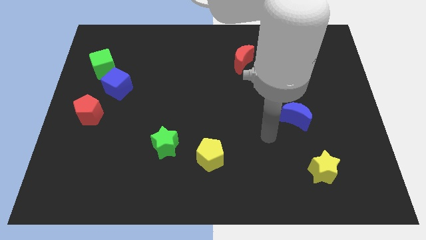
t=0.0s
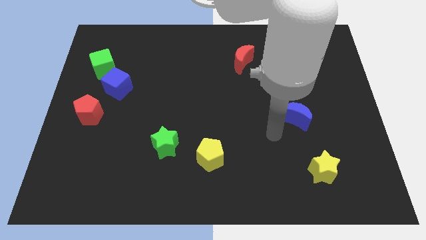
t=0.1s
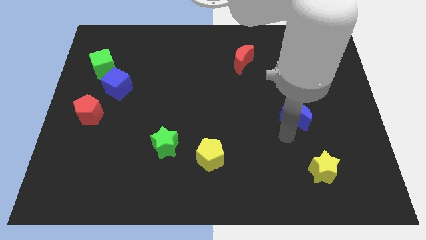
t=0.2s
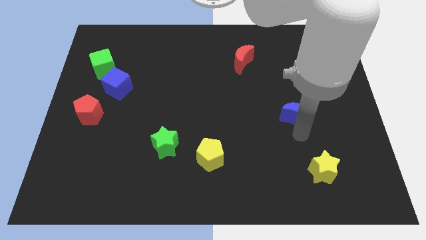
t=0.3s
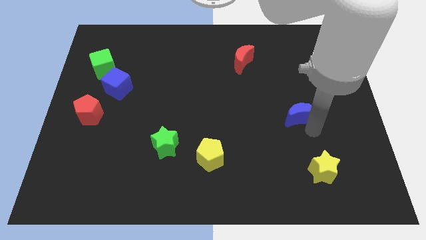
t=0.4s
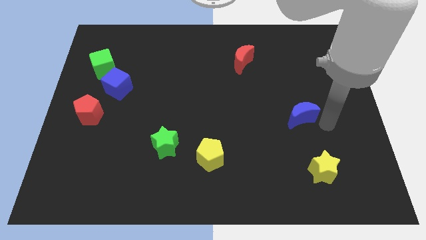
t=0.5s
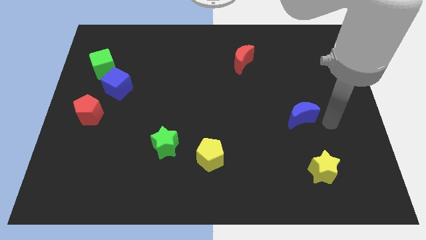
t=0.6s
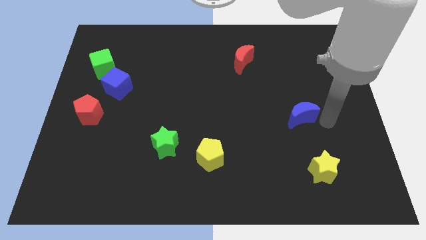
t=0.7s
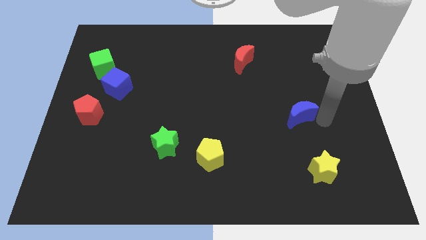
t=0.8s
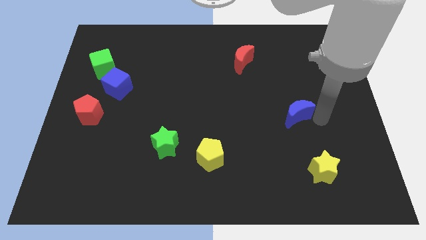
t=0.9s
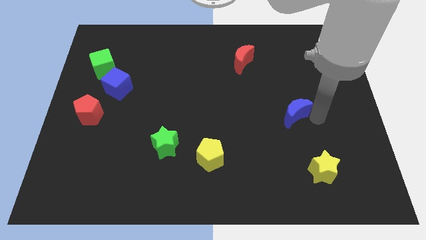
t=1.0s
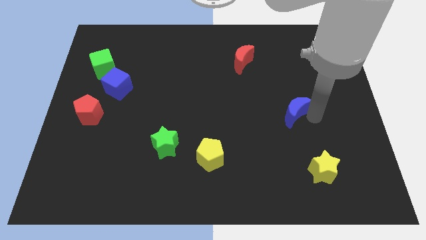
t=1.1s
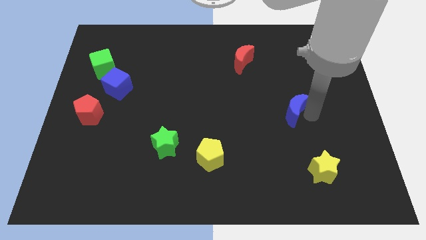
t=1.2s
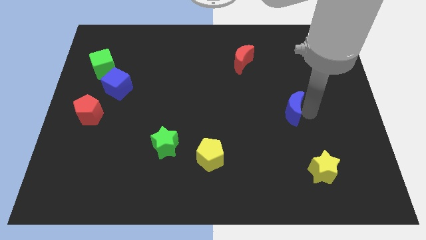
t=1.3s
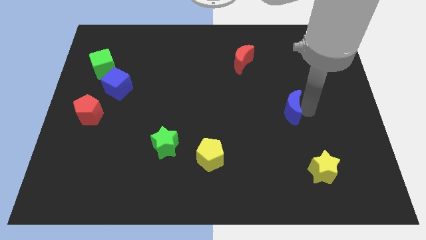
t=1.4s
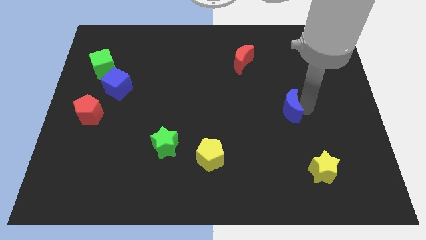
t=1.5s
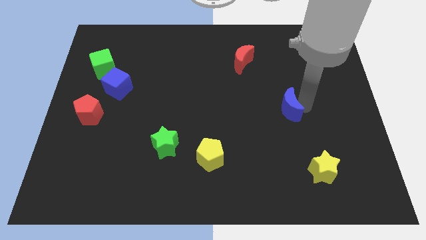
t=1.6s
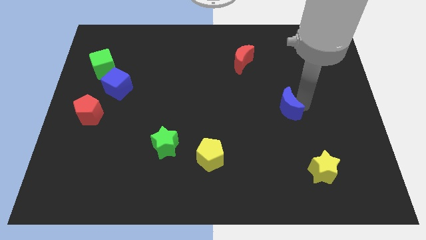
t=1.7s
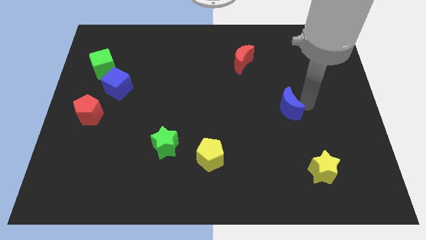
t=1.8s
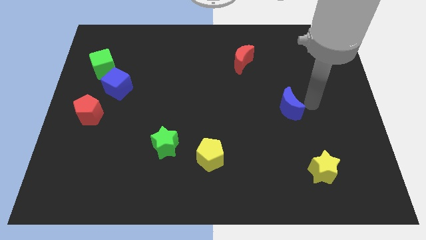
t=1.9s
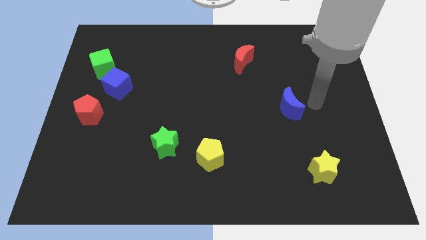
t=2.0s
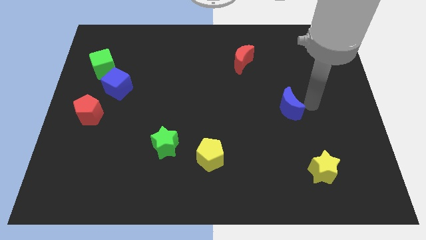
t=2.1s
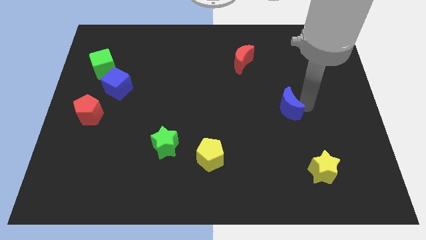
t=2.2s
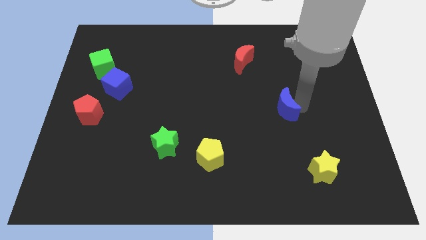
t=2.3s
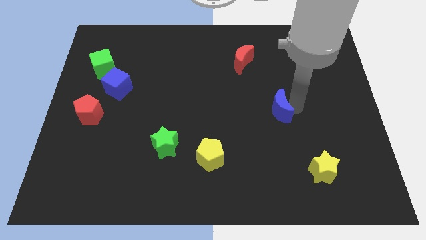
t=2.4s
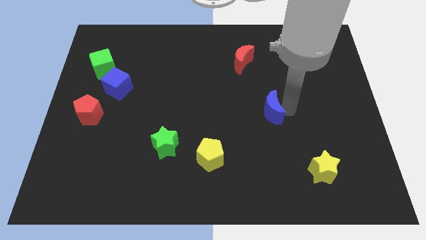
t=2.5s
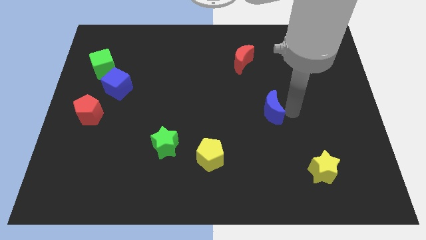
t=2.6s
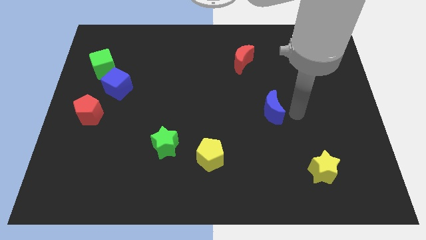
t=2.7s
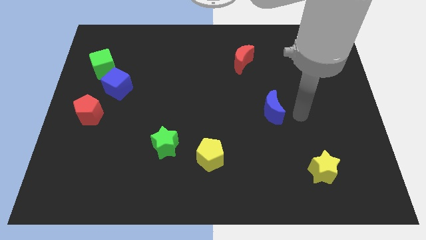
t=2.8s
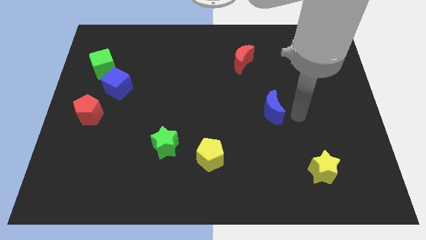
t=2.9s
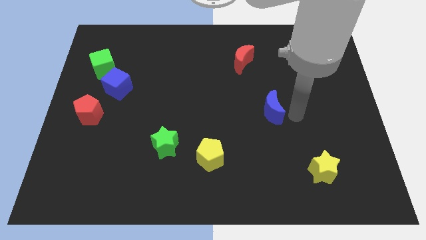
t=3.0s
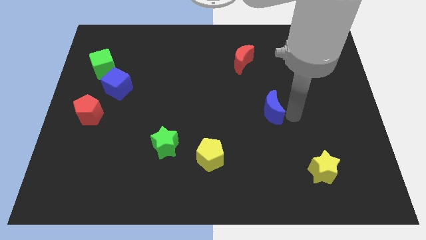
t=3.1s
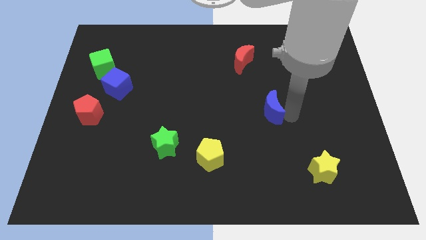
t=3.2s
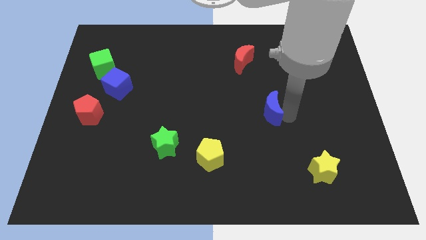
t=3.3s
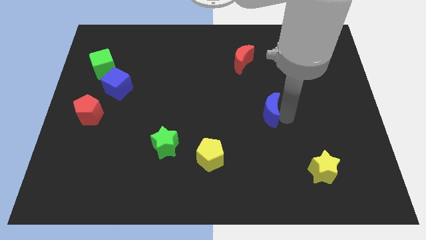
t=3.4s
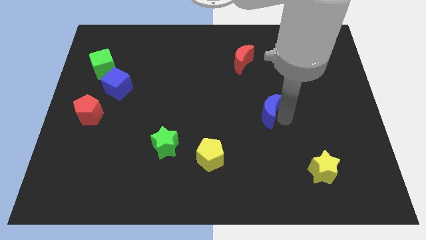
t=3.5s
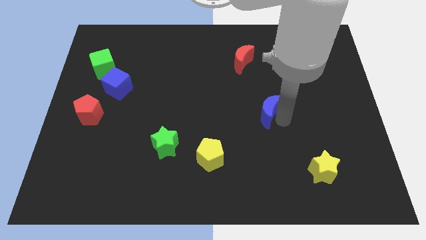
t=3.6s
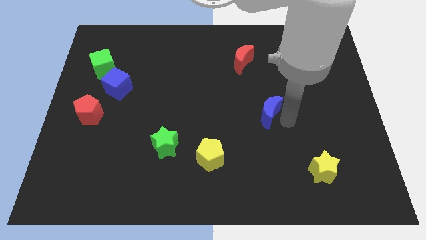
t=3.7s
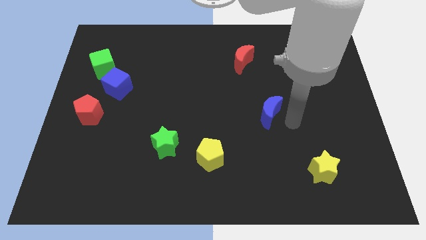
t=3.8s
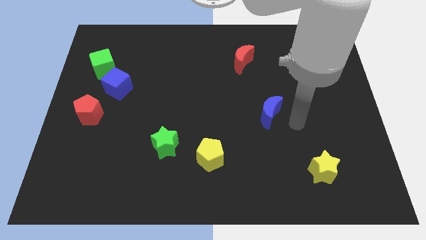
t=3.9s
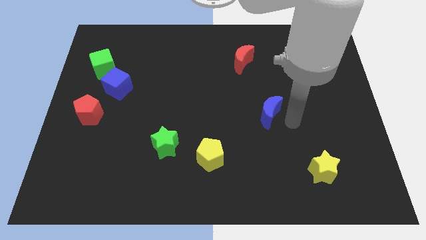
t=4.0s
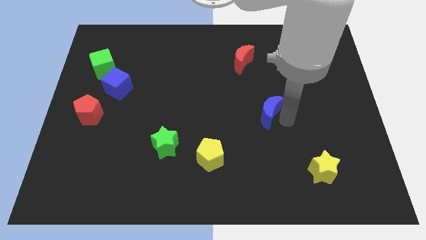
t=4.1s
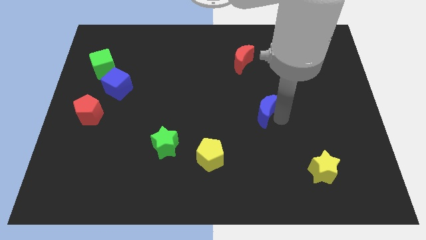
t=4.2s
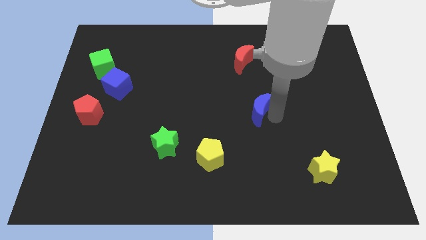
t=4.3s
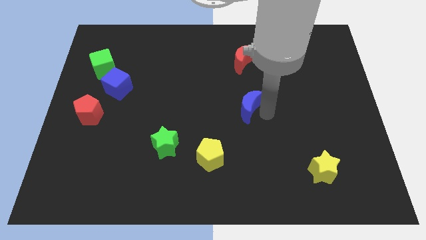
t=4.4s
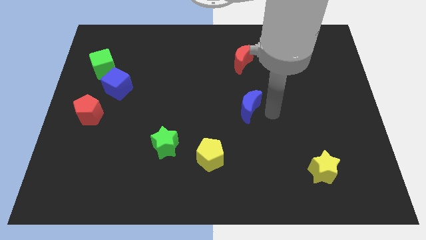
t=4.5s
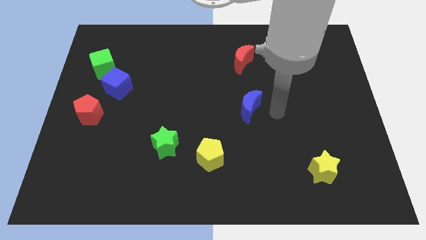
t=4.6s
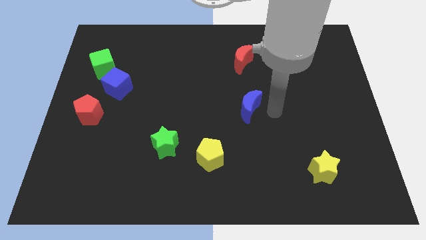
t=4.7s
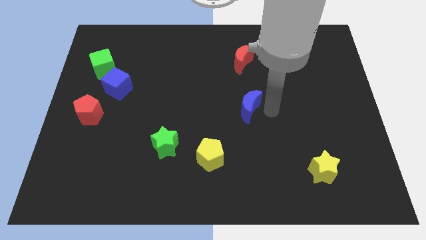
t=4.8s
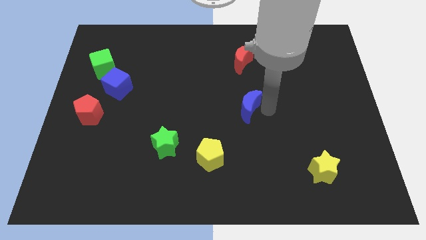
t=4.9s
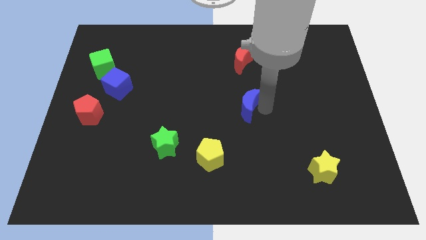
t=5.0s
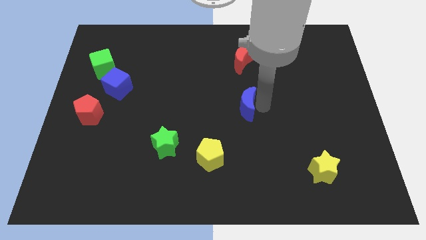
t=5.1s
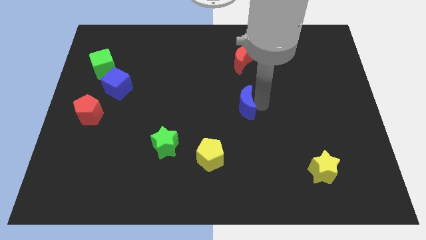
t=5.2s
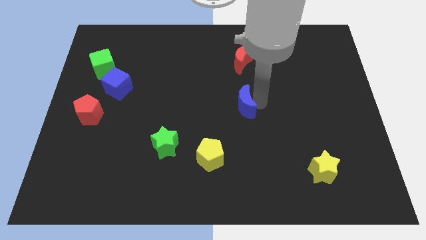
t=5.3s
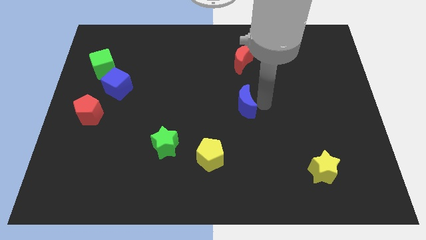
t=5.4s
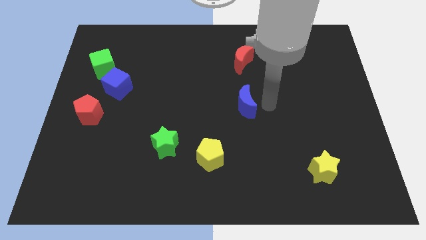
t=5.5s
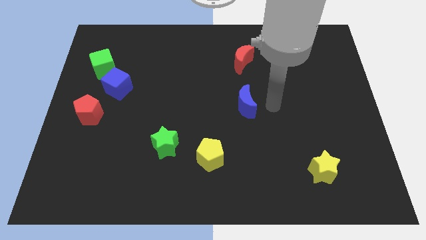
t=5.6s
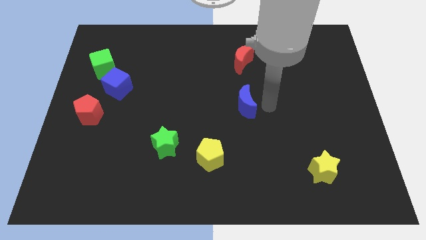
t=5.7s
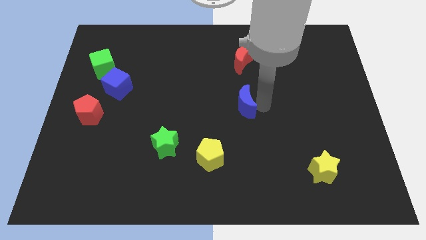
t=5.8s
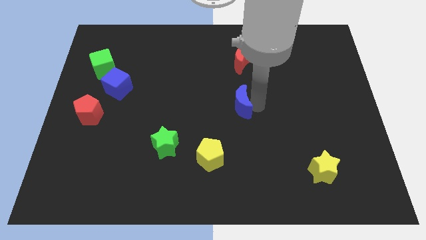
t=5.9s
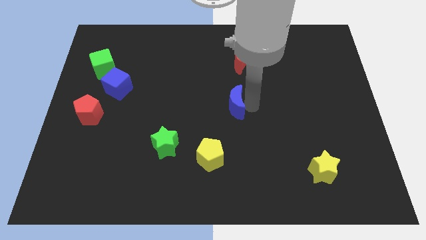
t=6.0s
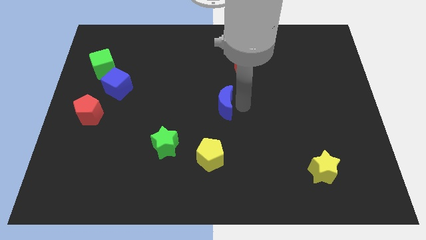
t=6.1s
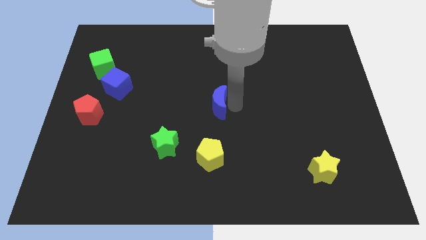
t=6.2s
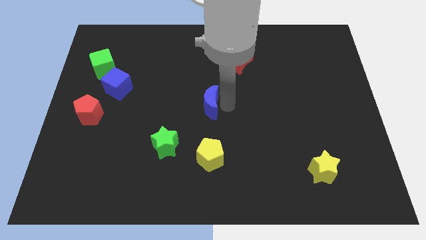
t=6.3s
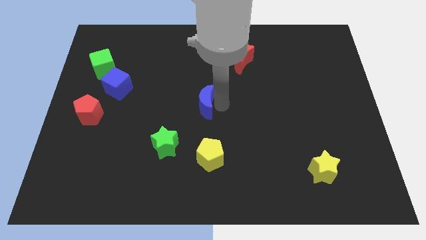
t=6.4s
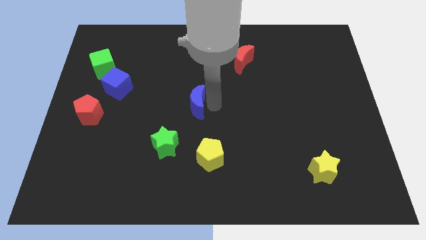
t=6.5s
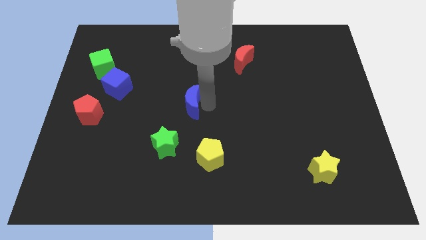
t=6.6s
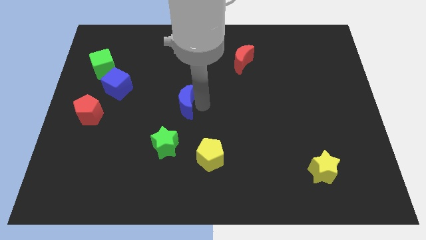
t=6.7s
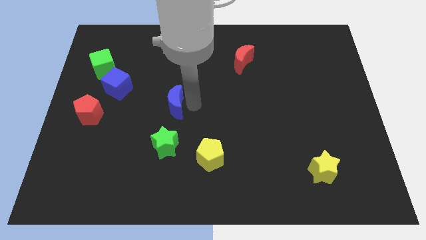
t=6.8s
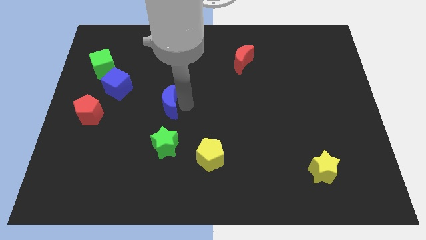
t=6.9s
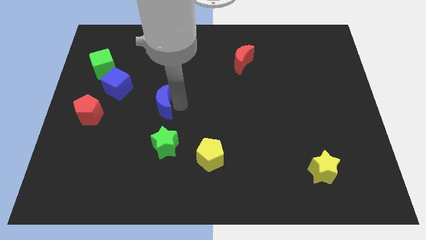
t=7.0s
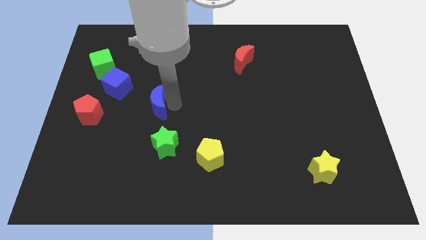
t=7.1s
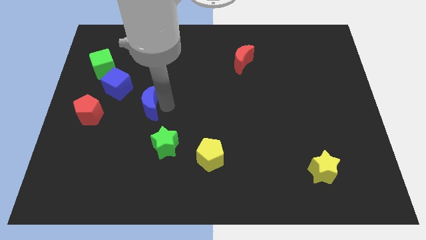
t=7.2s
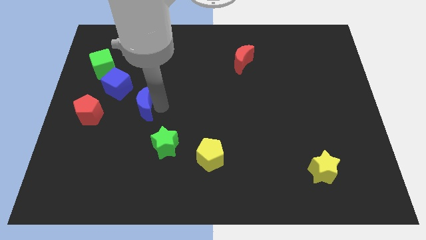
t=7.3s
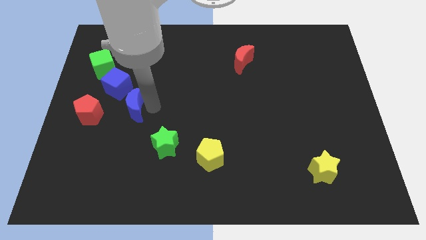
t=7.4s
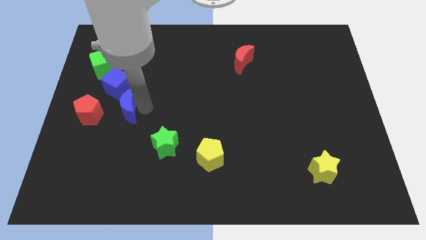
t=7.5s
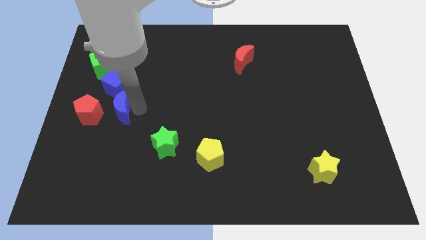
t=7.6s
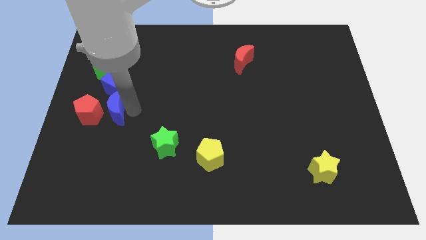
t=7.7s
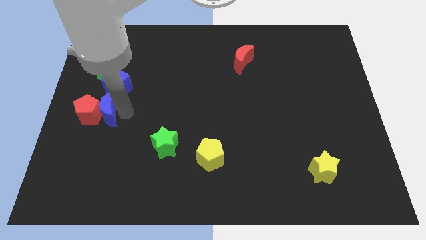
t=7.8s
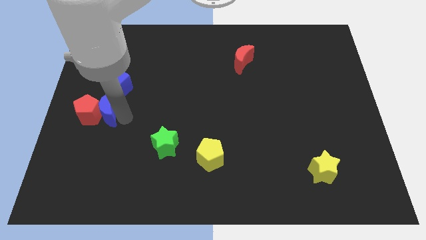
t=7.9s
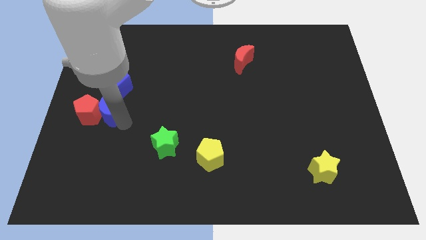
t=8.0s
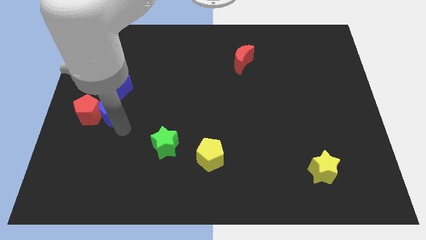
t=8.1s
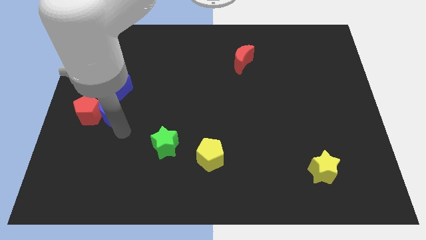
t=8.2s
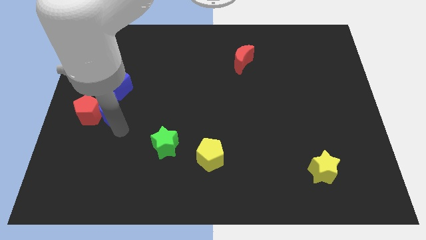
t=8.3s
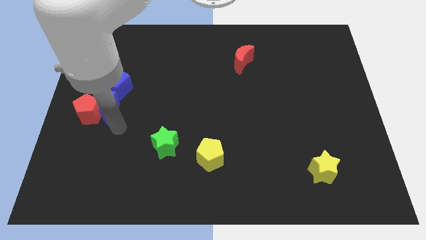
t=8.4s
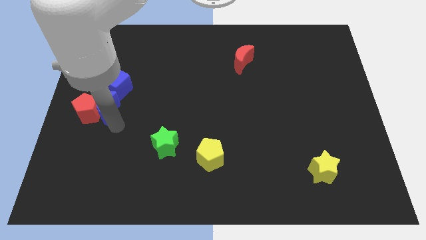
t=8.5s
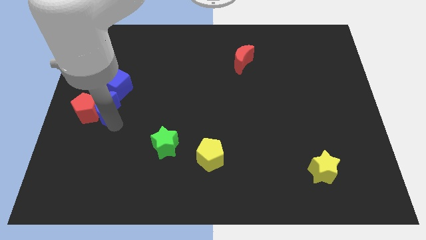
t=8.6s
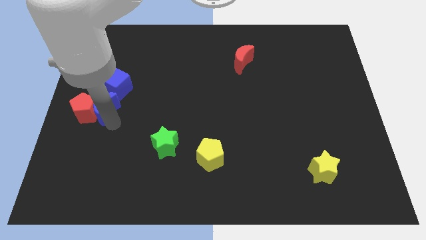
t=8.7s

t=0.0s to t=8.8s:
slide the blue moon to the center left
